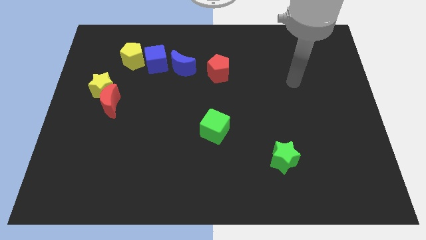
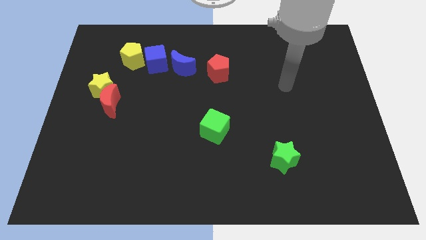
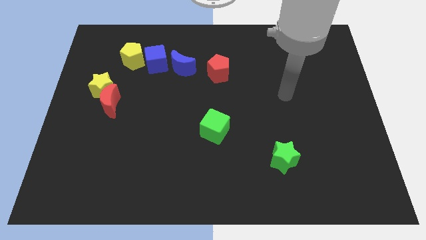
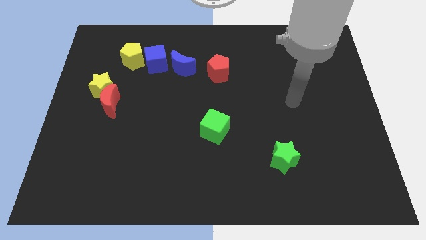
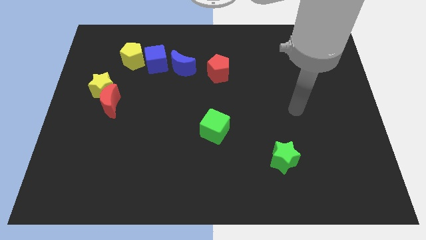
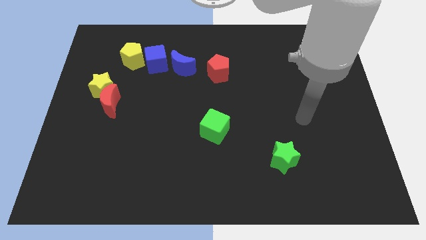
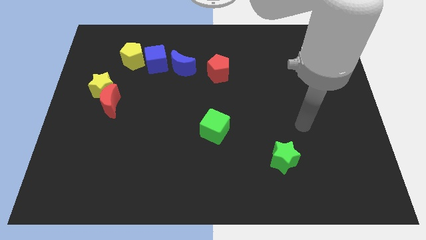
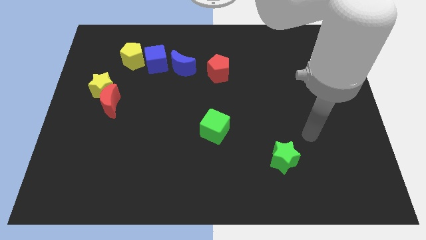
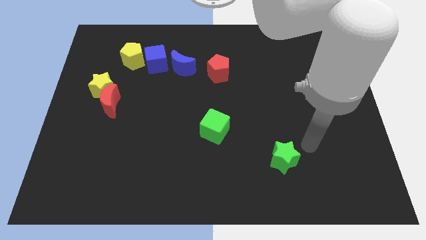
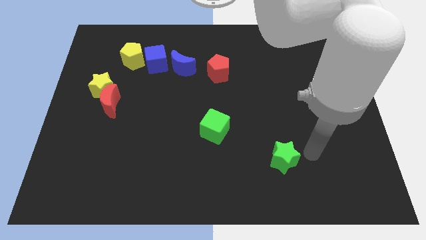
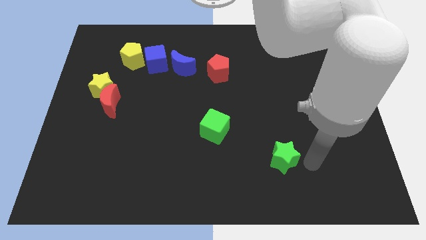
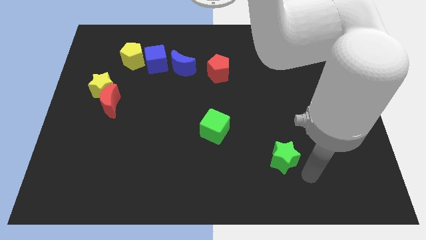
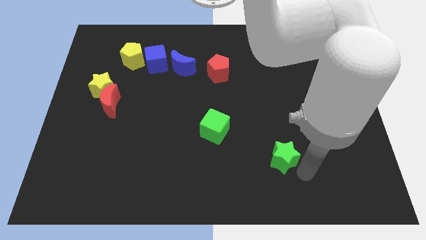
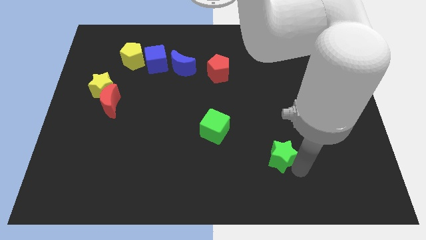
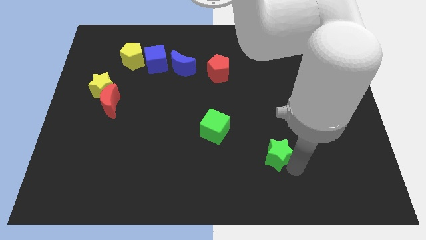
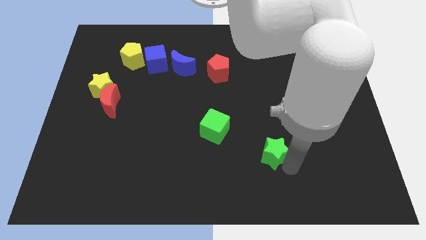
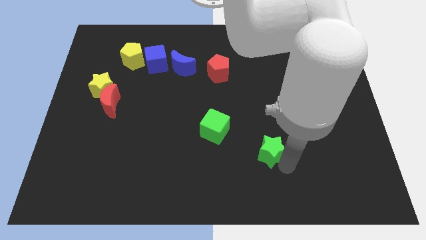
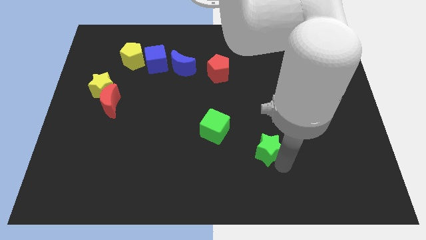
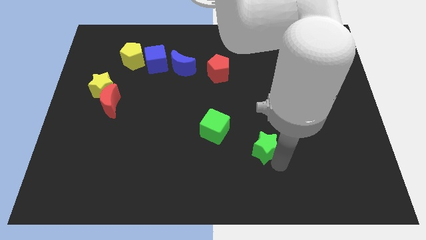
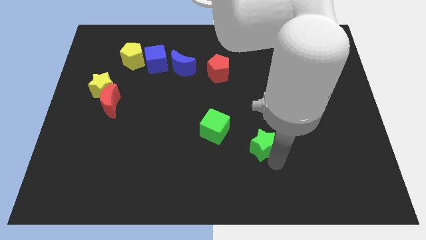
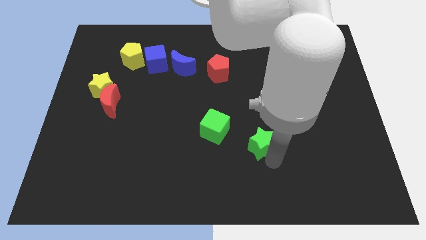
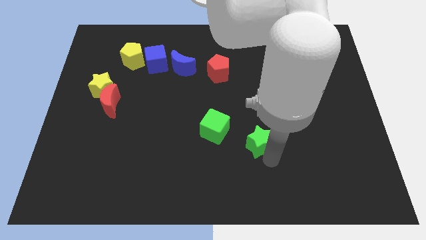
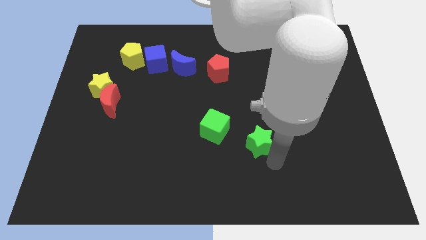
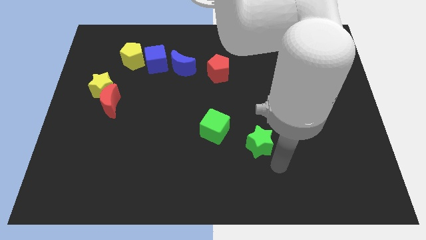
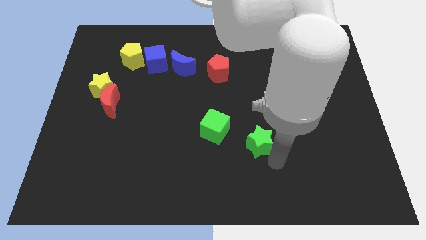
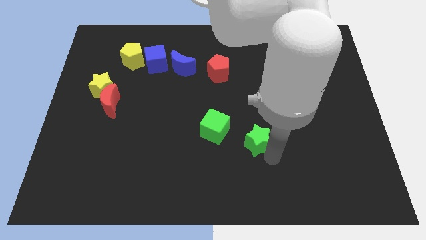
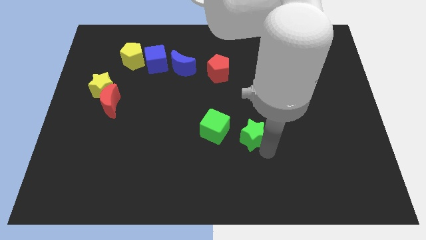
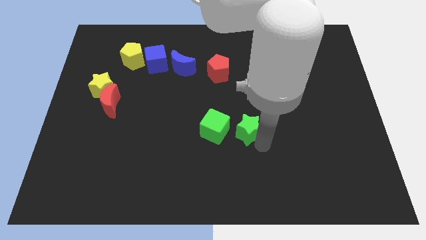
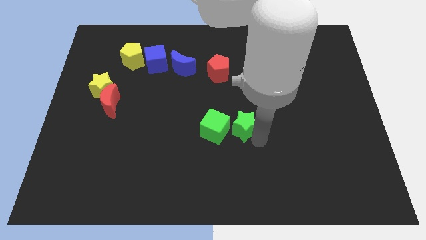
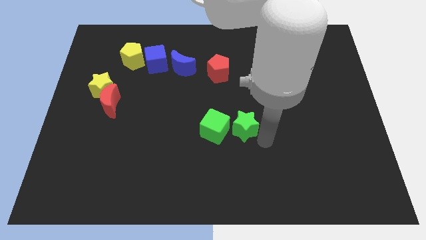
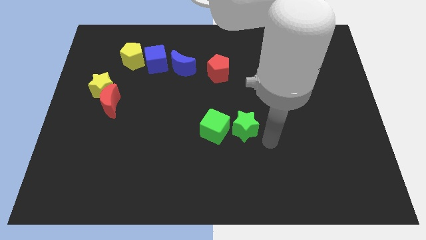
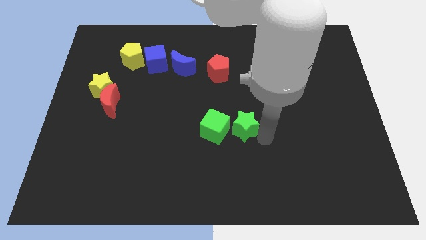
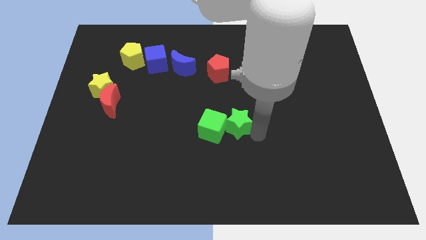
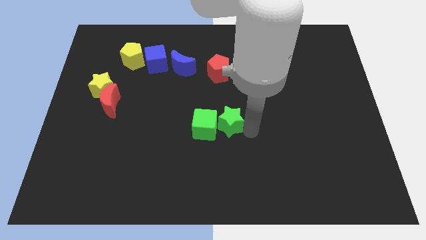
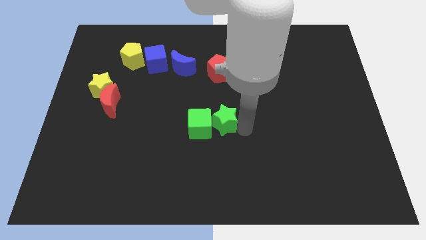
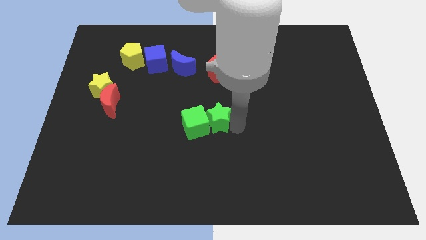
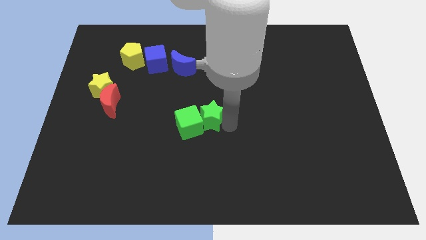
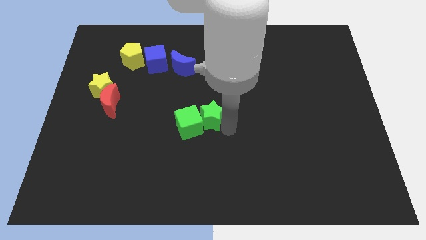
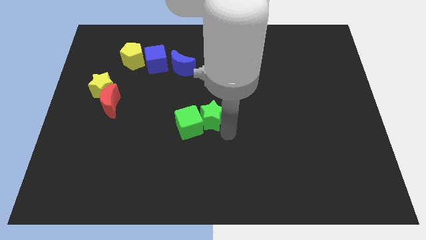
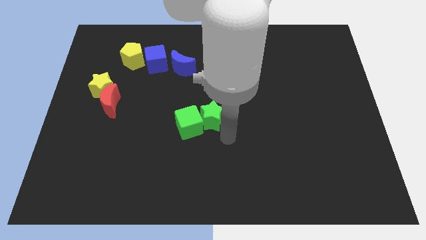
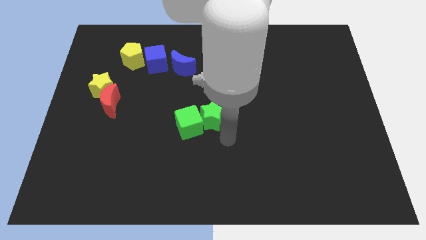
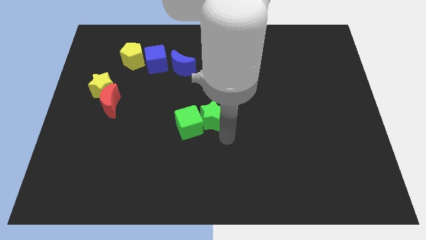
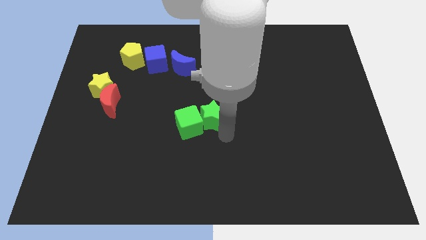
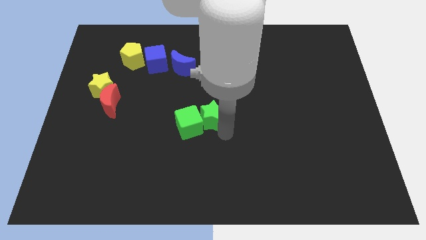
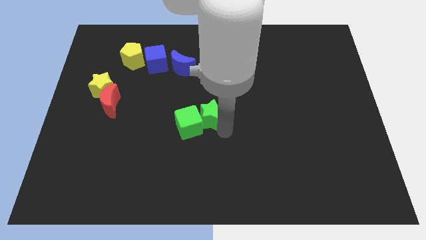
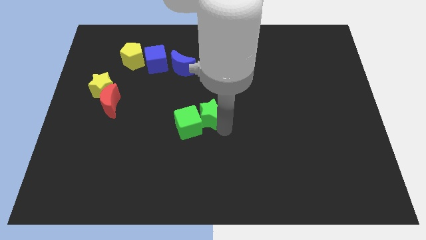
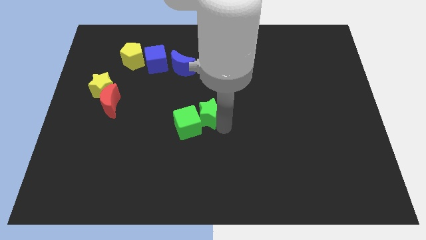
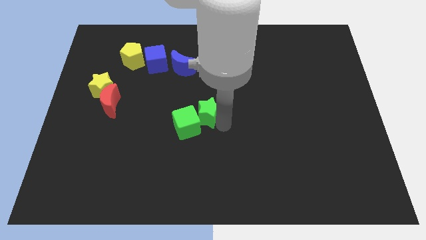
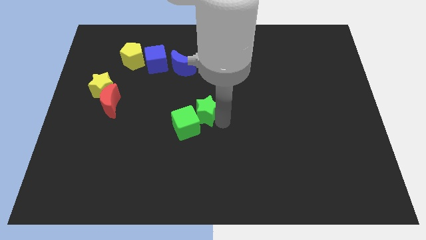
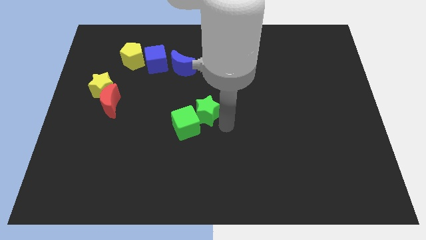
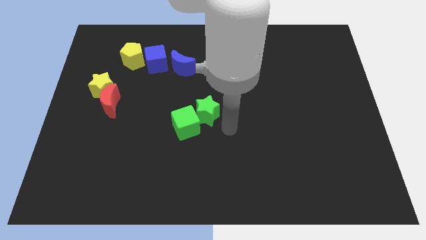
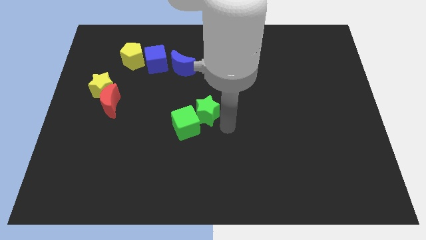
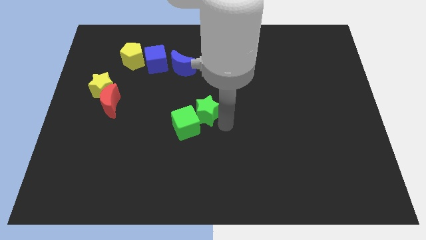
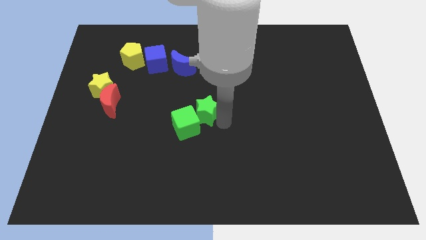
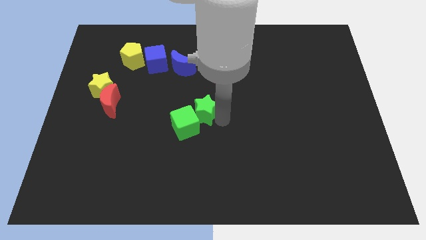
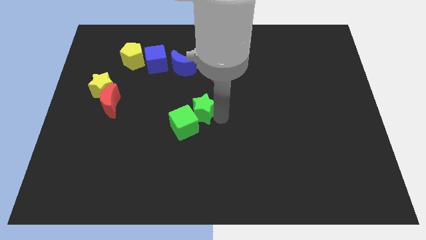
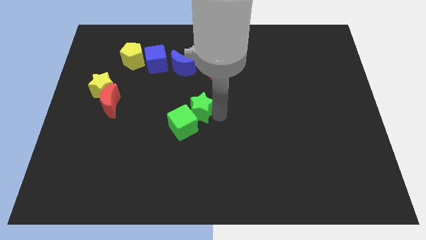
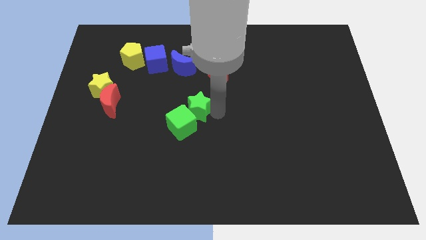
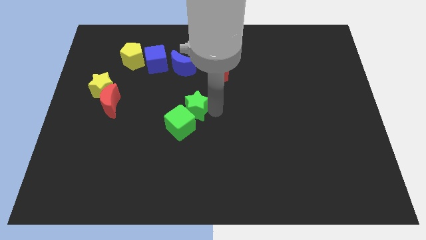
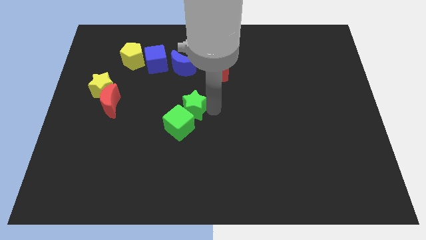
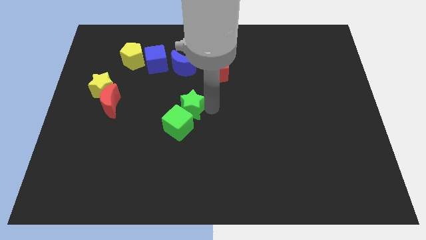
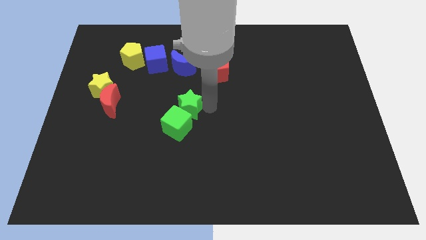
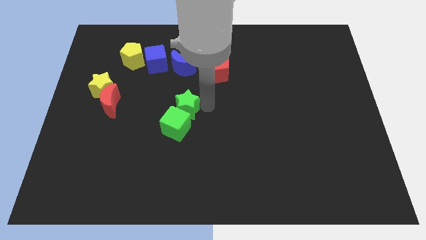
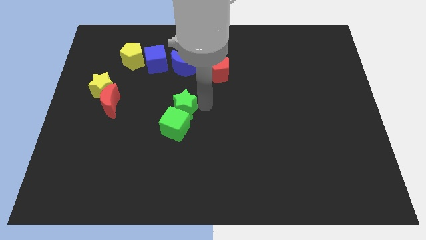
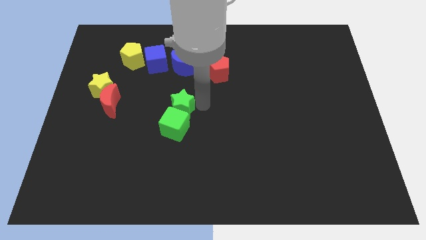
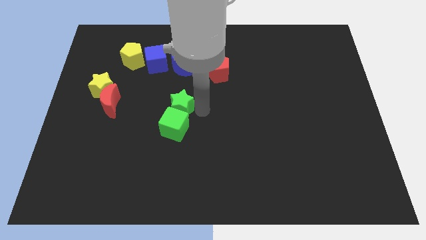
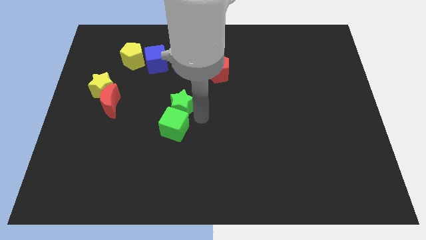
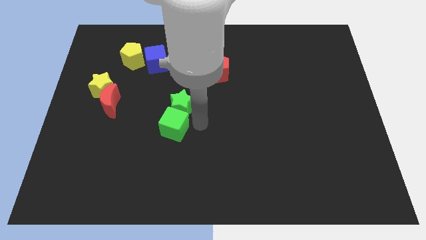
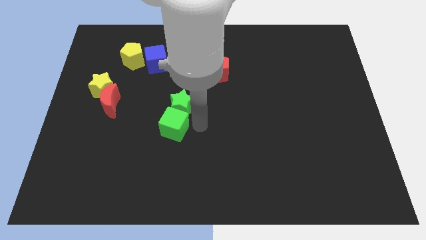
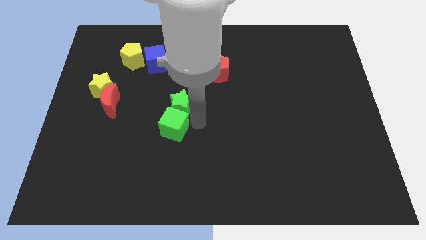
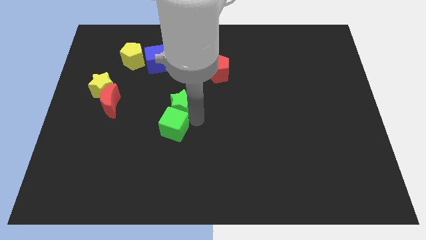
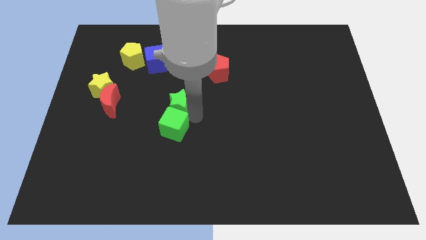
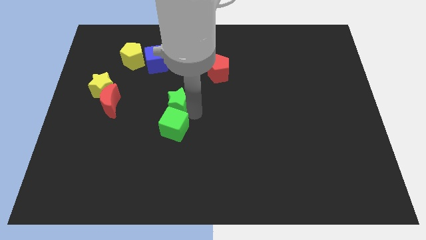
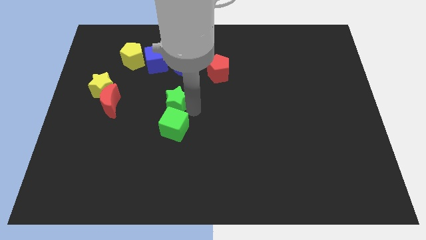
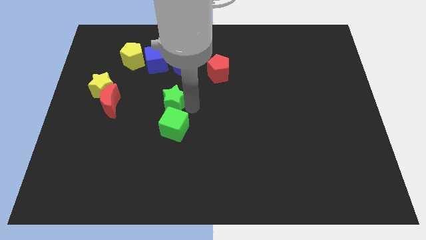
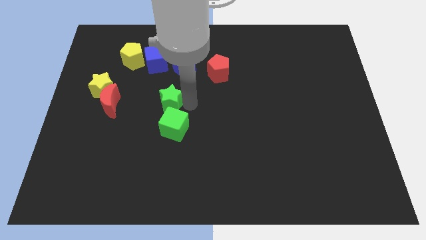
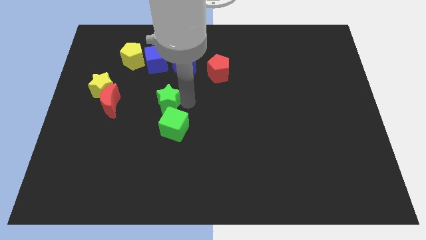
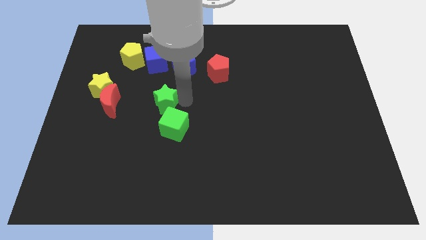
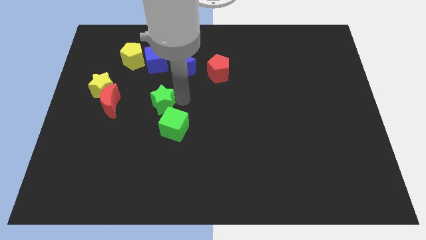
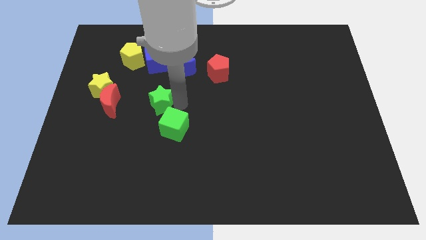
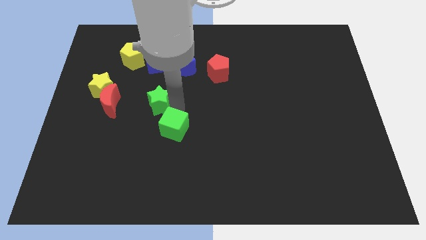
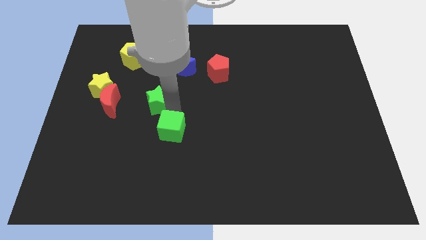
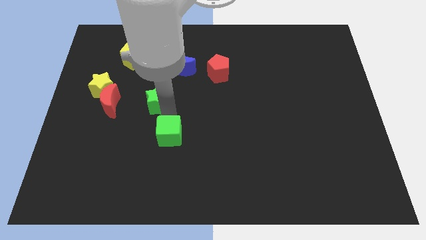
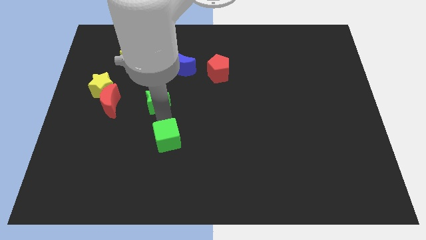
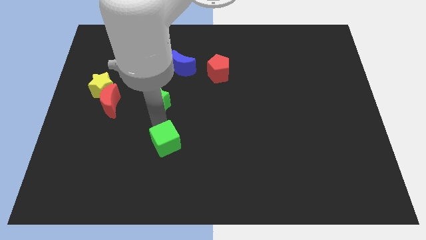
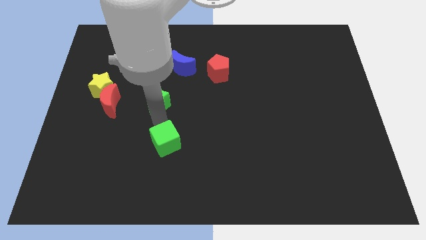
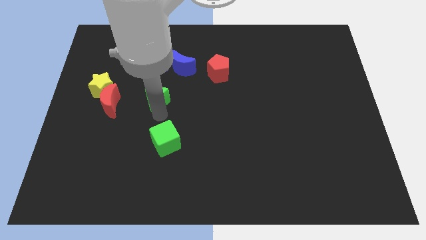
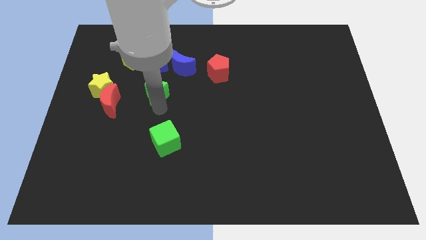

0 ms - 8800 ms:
put the green star diagonally down and to the left of the blue moon
